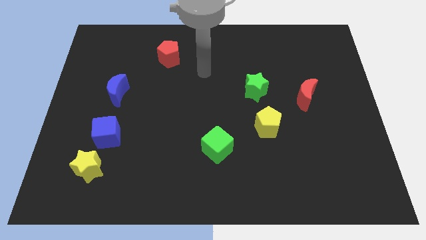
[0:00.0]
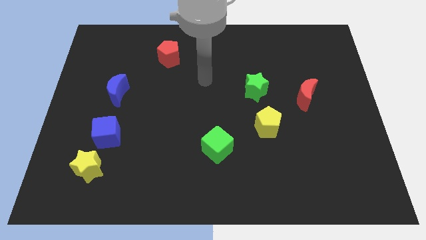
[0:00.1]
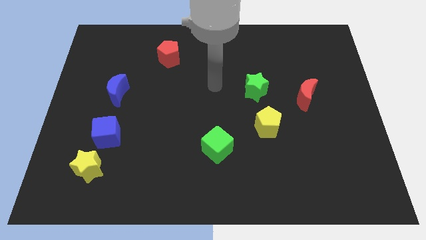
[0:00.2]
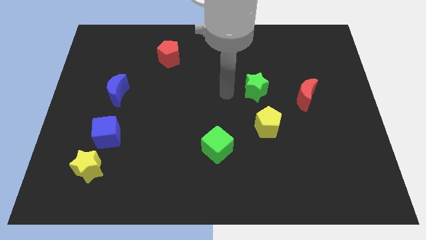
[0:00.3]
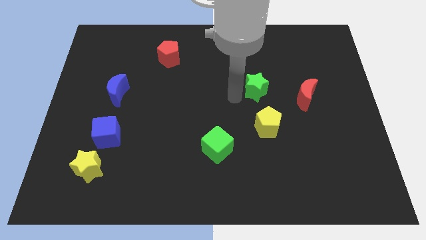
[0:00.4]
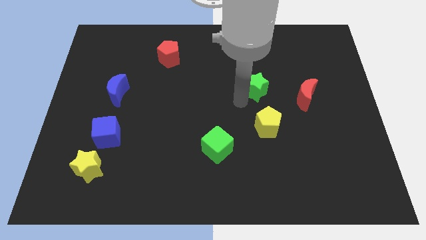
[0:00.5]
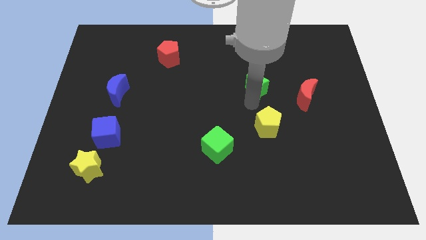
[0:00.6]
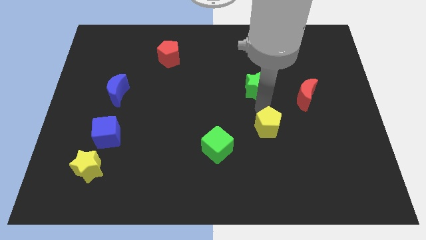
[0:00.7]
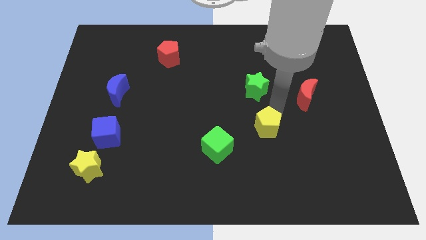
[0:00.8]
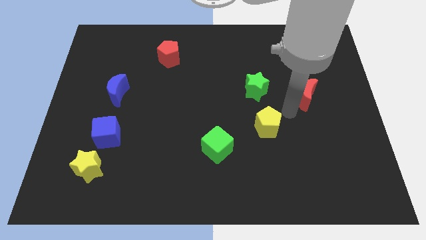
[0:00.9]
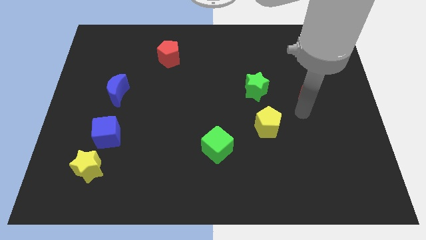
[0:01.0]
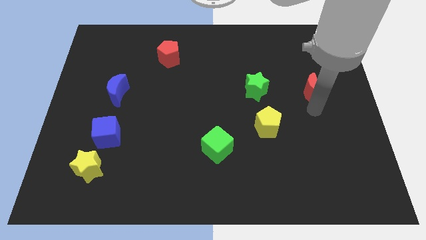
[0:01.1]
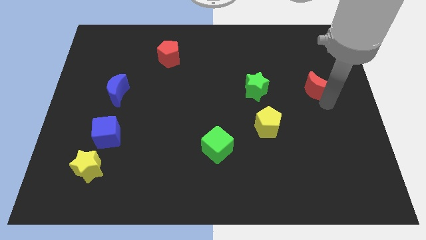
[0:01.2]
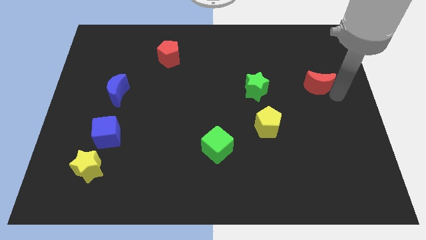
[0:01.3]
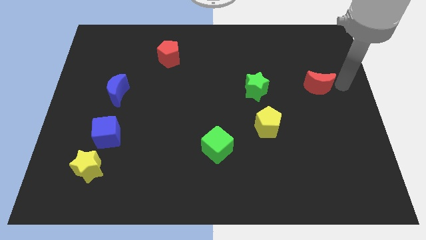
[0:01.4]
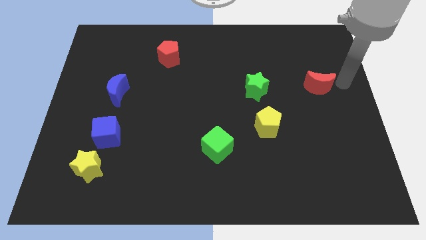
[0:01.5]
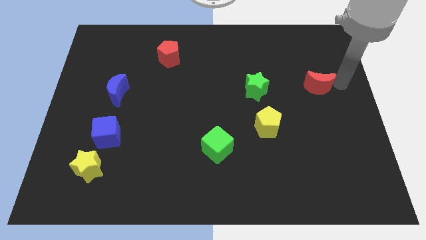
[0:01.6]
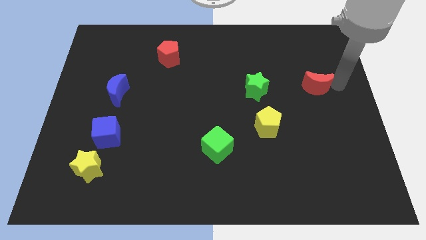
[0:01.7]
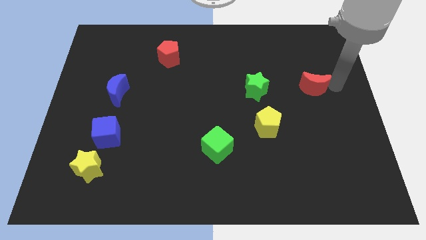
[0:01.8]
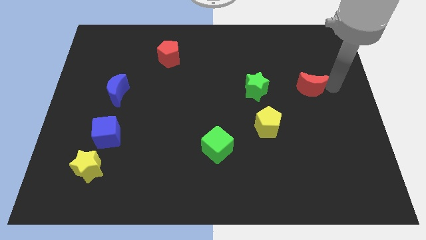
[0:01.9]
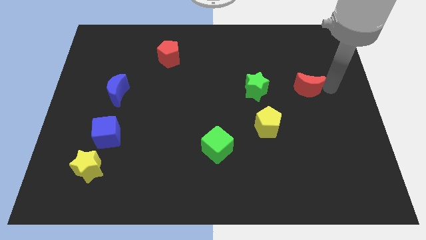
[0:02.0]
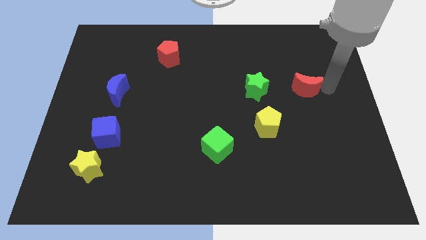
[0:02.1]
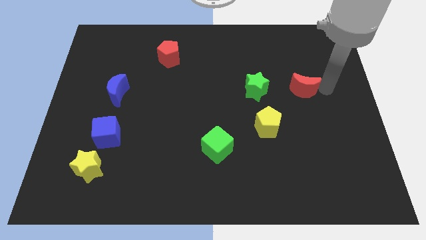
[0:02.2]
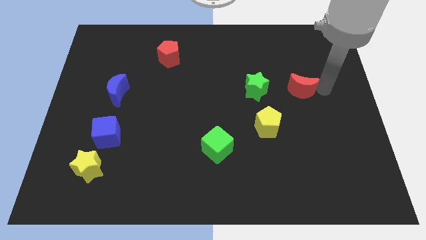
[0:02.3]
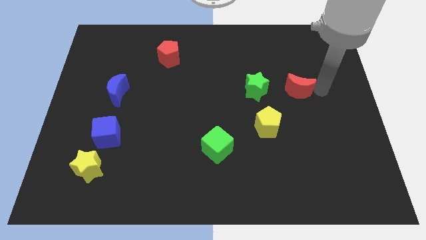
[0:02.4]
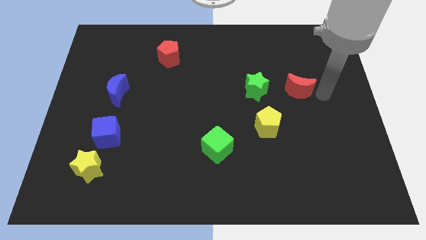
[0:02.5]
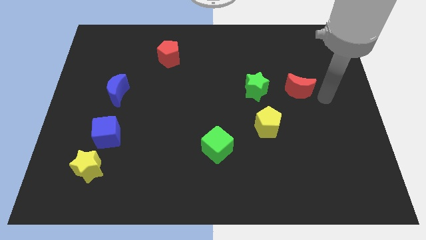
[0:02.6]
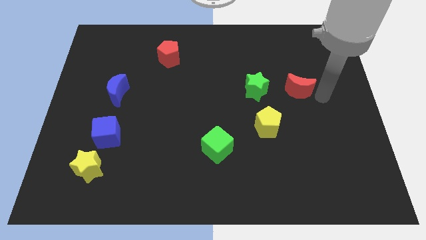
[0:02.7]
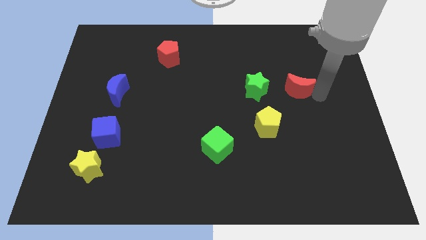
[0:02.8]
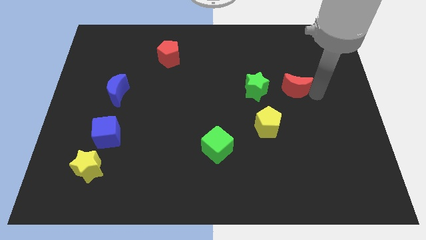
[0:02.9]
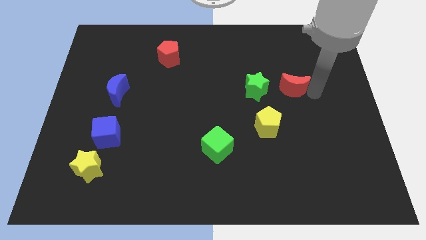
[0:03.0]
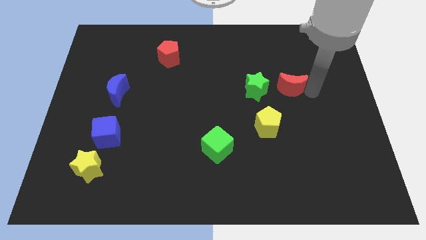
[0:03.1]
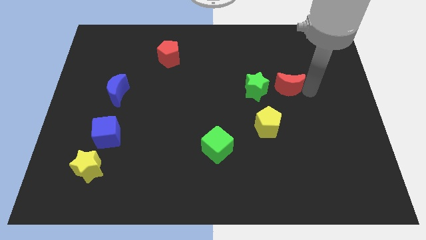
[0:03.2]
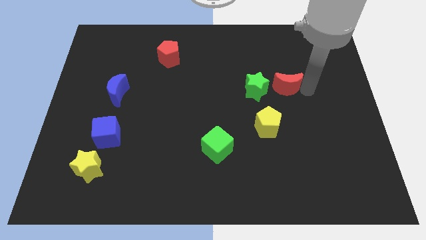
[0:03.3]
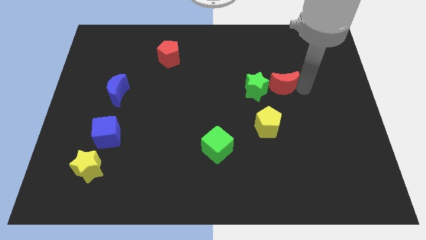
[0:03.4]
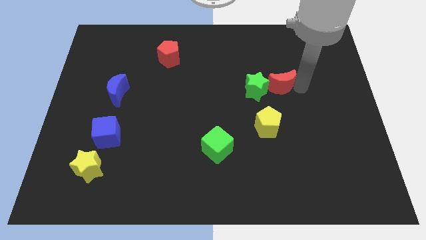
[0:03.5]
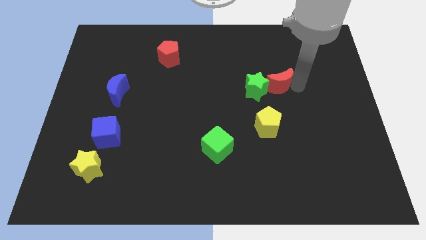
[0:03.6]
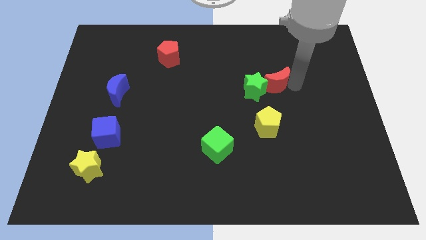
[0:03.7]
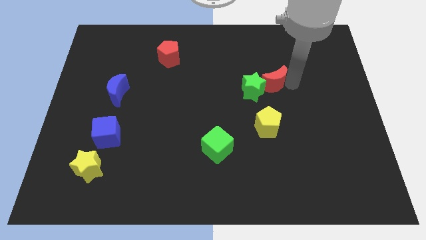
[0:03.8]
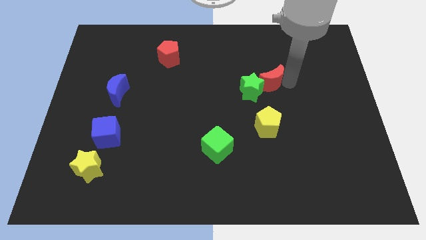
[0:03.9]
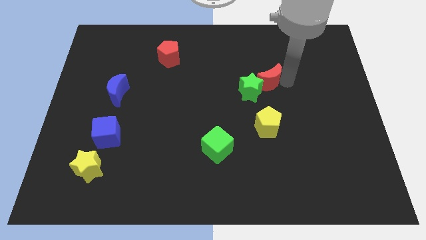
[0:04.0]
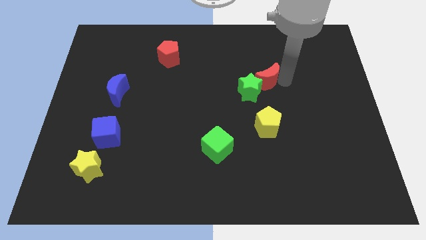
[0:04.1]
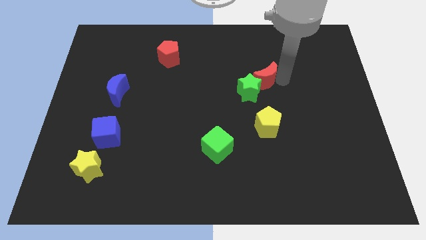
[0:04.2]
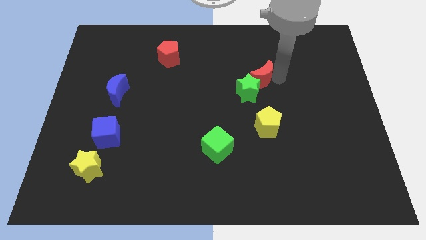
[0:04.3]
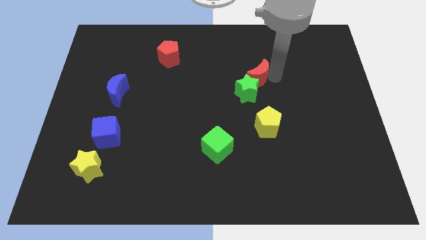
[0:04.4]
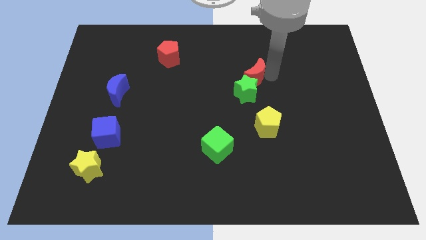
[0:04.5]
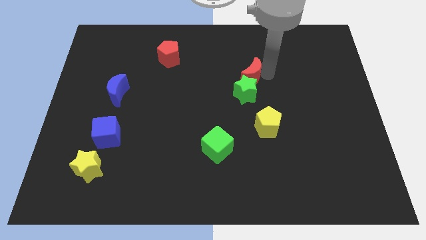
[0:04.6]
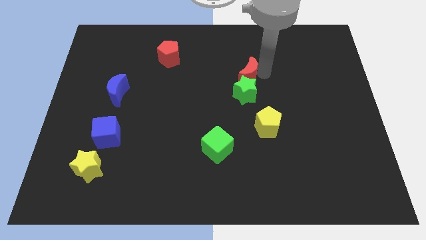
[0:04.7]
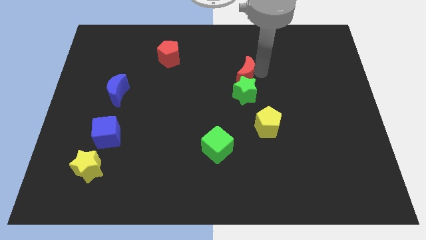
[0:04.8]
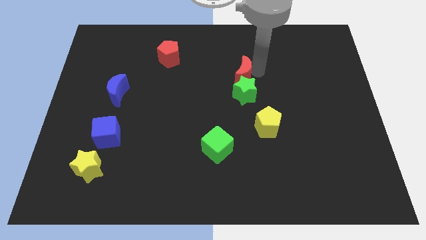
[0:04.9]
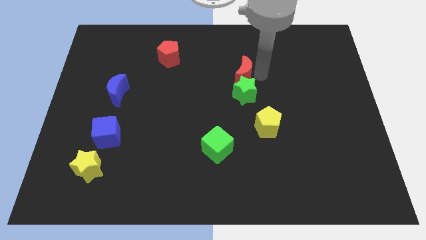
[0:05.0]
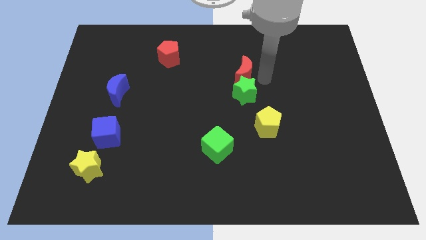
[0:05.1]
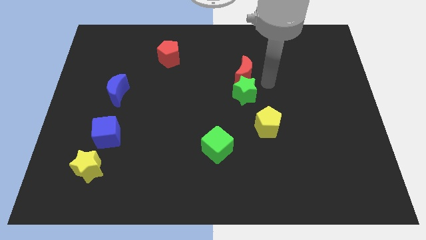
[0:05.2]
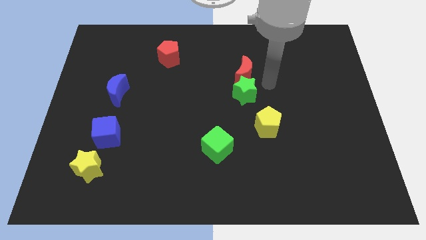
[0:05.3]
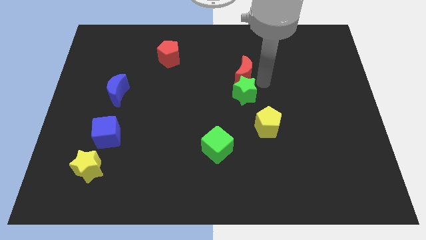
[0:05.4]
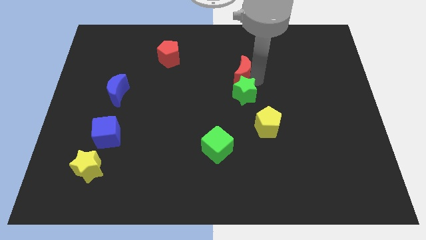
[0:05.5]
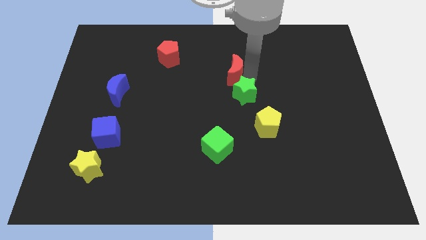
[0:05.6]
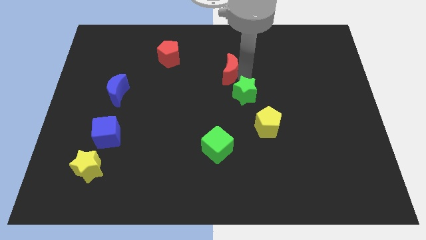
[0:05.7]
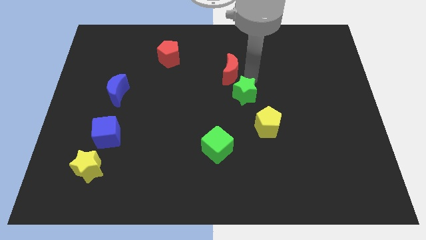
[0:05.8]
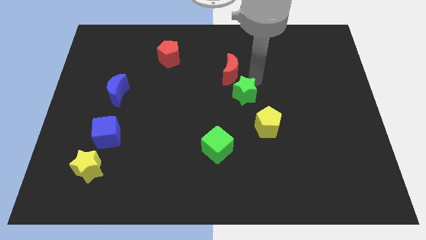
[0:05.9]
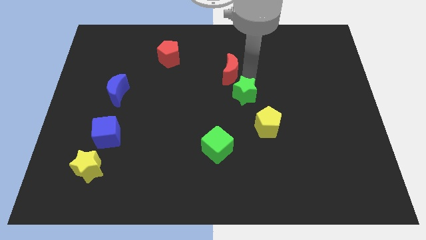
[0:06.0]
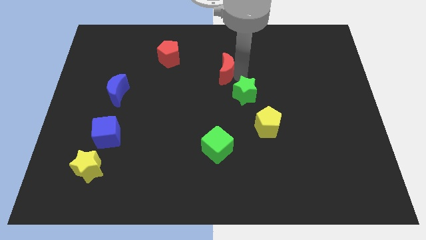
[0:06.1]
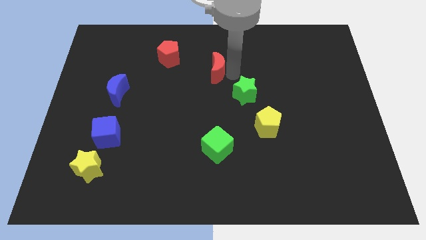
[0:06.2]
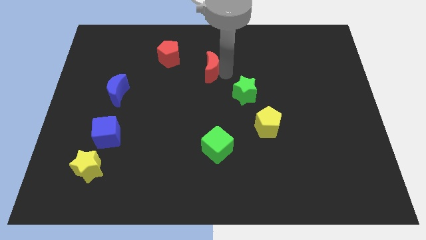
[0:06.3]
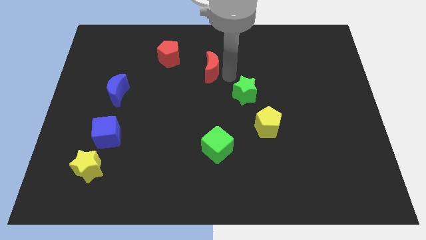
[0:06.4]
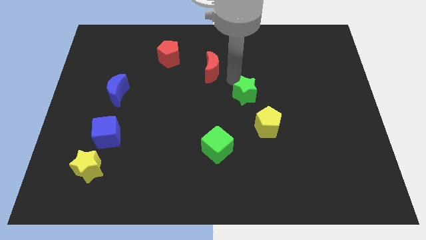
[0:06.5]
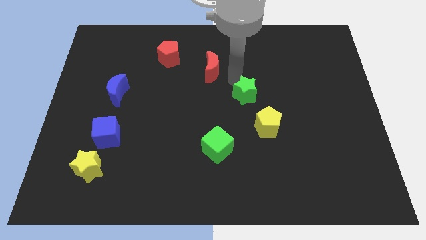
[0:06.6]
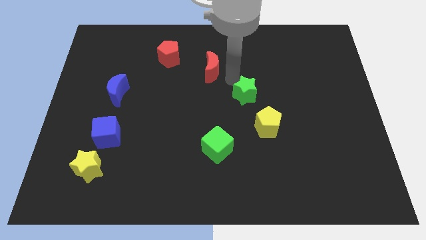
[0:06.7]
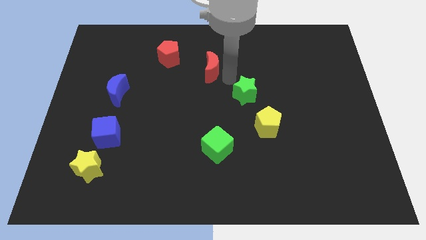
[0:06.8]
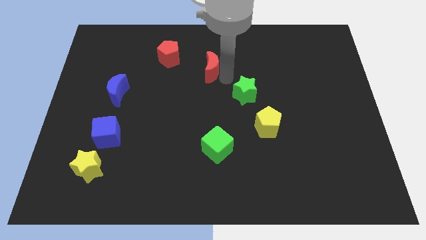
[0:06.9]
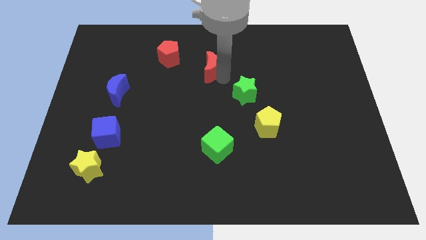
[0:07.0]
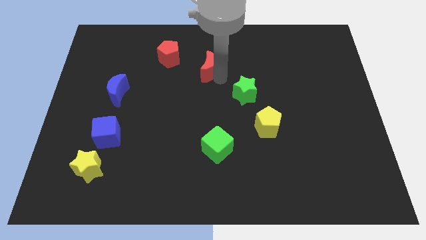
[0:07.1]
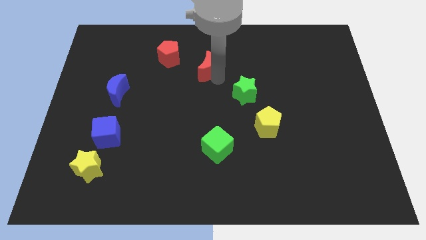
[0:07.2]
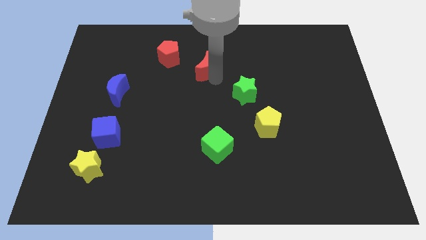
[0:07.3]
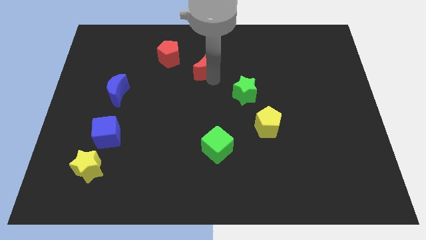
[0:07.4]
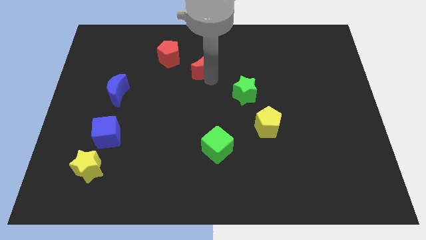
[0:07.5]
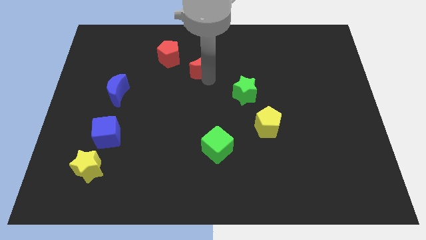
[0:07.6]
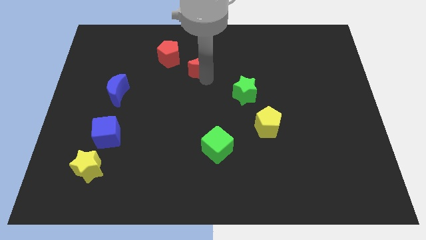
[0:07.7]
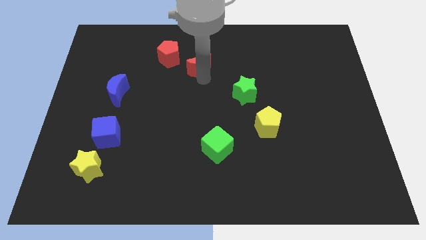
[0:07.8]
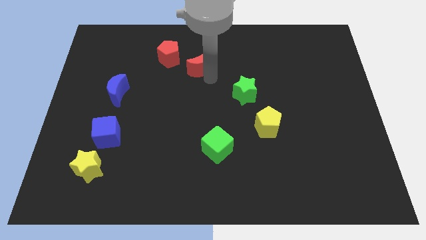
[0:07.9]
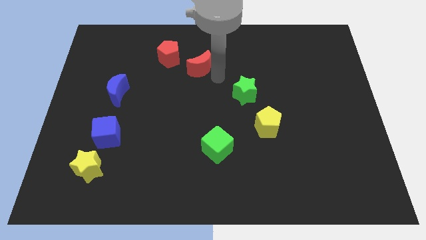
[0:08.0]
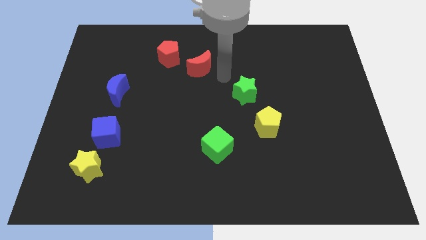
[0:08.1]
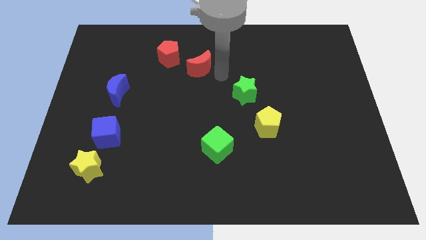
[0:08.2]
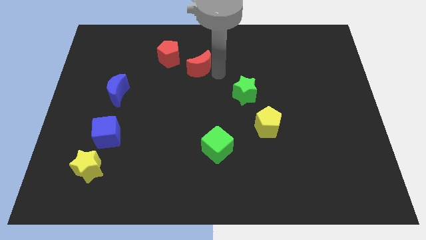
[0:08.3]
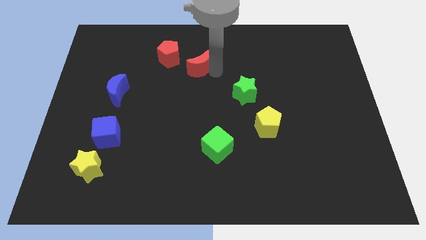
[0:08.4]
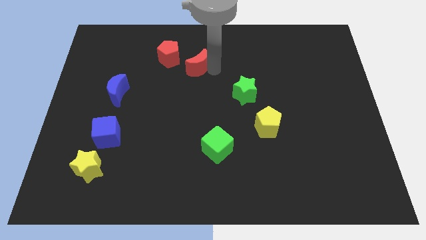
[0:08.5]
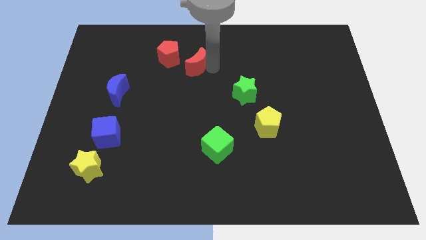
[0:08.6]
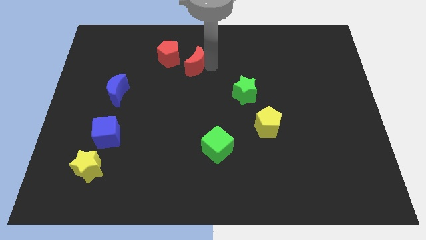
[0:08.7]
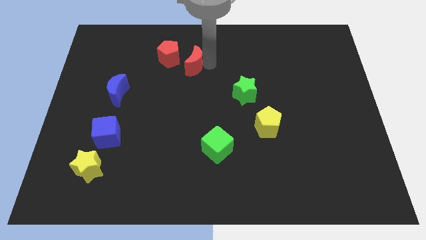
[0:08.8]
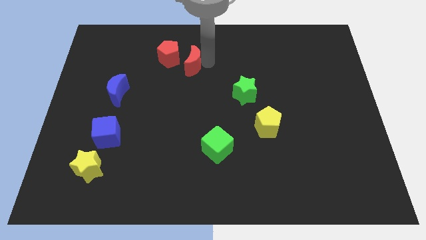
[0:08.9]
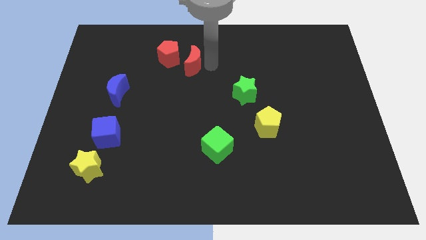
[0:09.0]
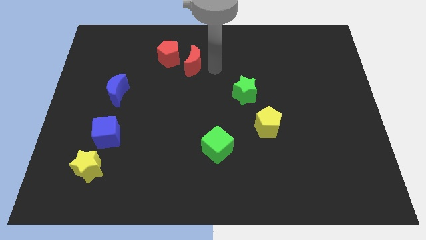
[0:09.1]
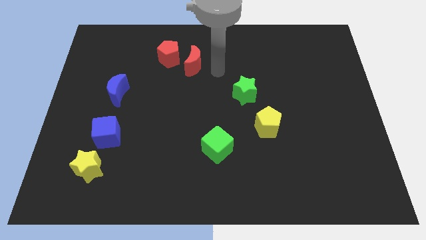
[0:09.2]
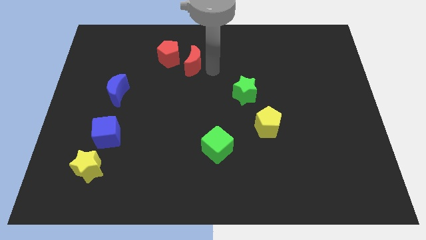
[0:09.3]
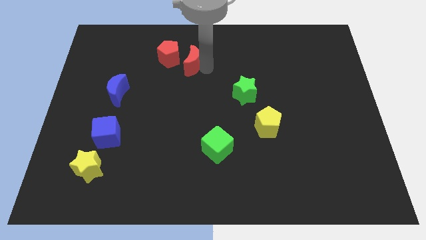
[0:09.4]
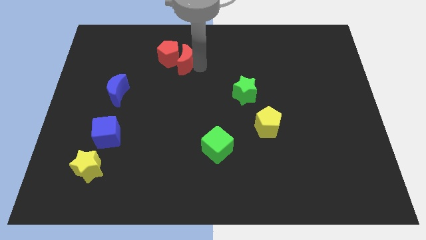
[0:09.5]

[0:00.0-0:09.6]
push the red moon towards the red pentagon
